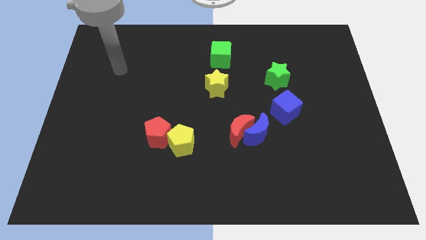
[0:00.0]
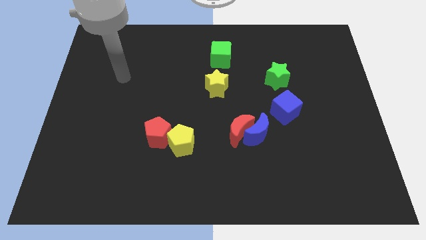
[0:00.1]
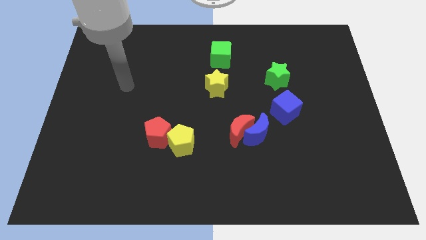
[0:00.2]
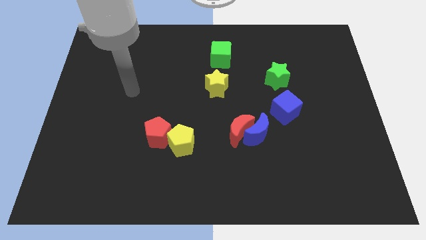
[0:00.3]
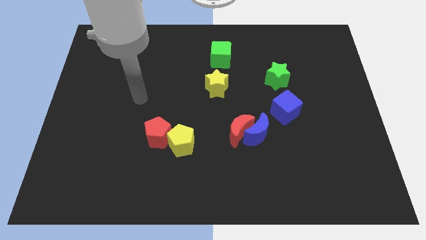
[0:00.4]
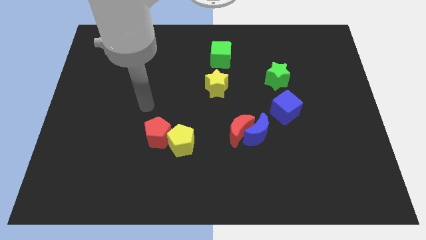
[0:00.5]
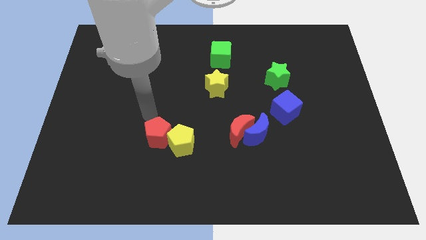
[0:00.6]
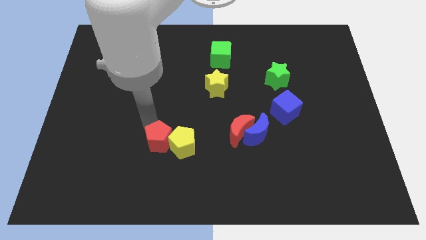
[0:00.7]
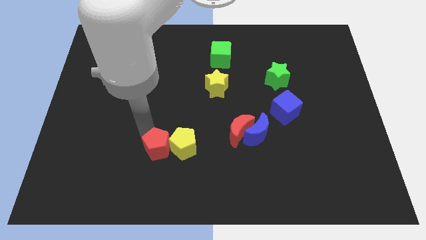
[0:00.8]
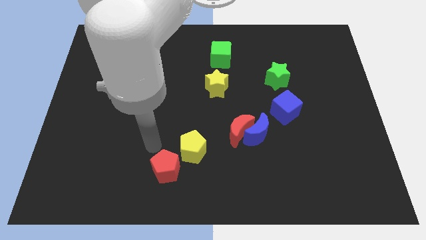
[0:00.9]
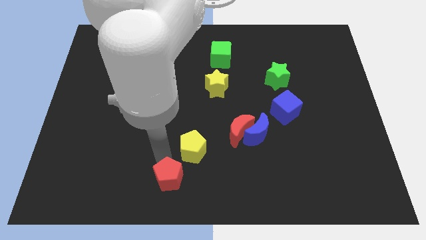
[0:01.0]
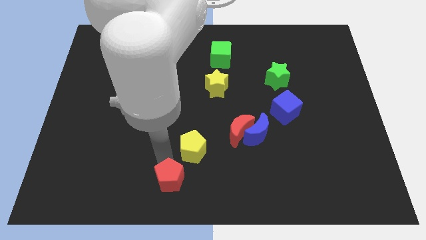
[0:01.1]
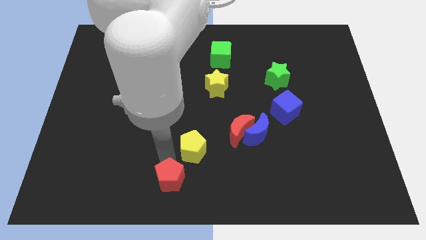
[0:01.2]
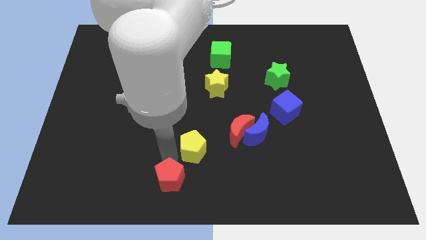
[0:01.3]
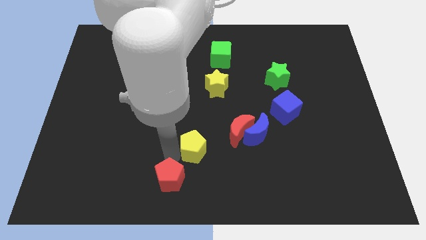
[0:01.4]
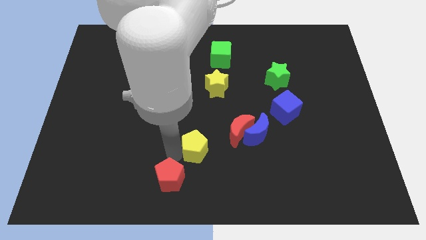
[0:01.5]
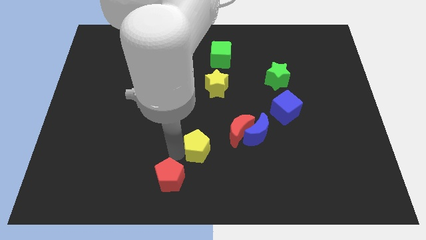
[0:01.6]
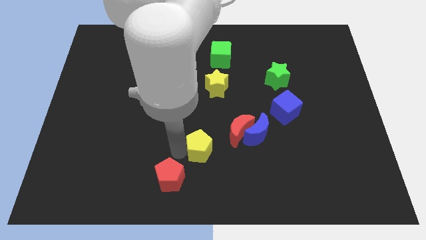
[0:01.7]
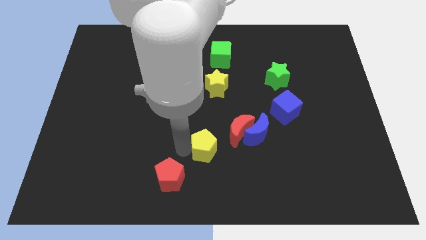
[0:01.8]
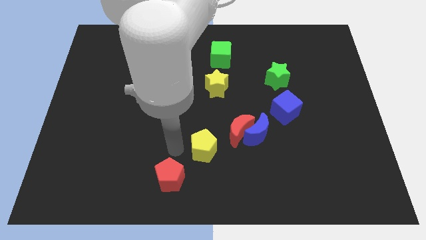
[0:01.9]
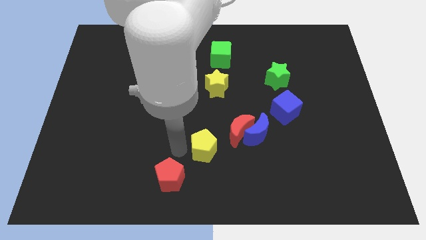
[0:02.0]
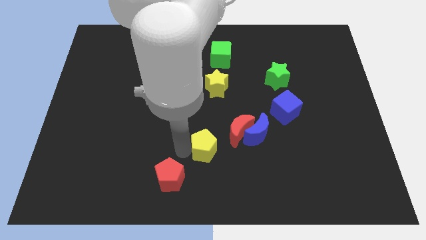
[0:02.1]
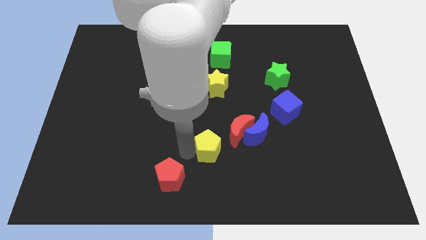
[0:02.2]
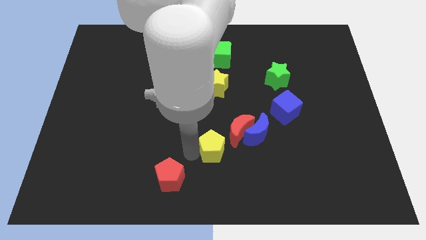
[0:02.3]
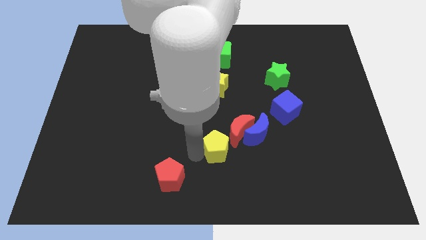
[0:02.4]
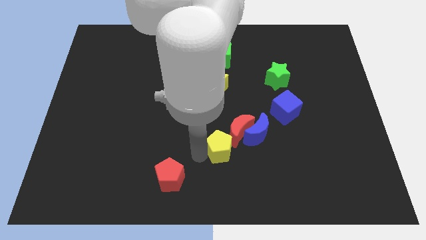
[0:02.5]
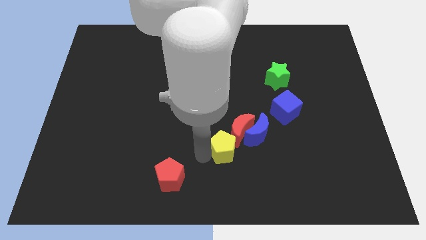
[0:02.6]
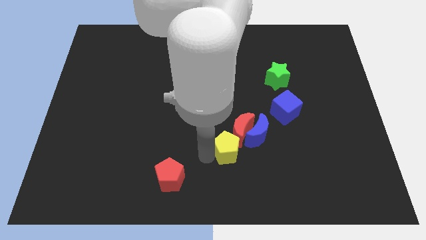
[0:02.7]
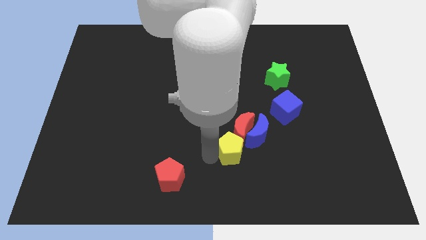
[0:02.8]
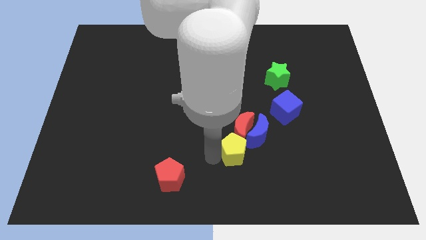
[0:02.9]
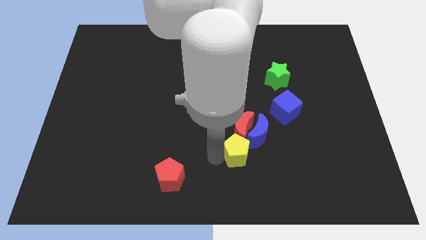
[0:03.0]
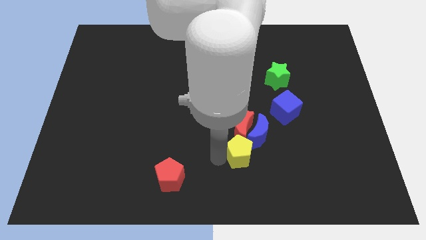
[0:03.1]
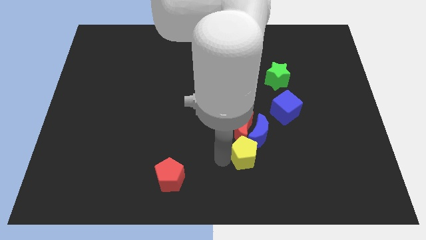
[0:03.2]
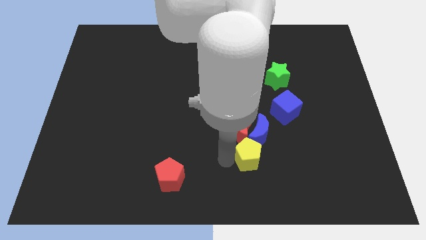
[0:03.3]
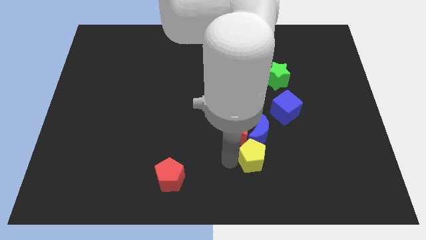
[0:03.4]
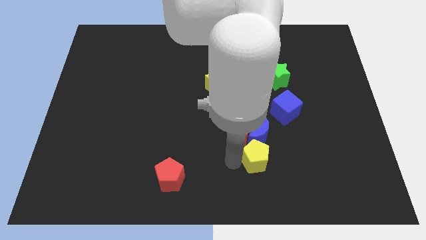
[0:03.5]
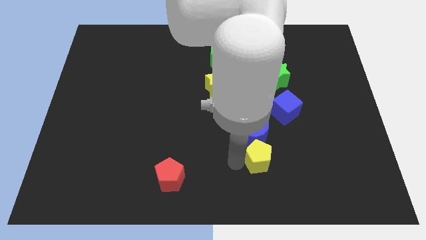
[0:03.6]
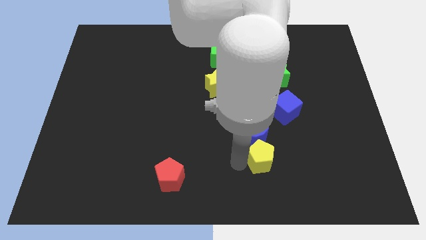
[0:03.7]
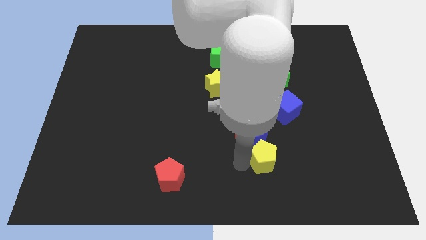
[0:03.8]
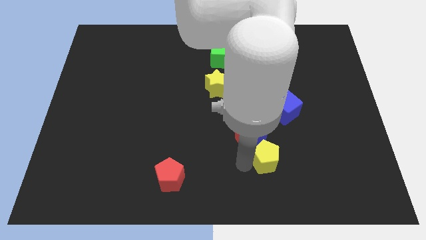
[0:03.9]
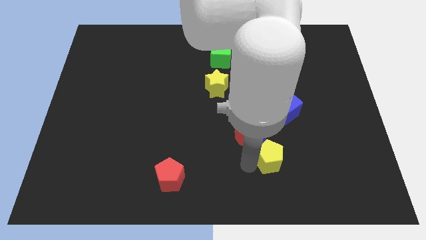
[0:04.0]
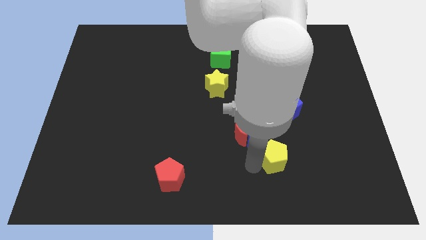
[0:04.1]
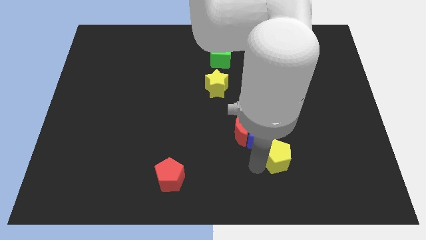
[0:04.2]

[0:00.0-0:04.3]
move the yellow pentagon to the right

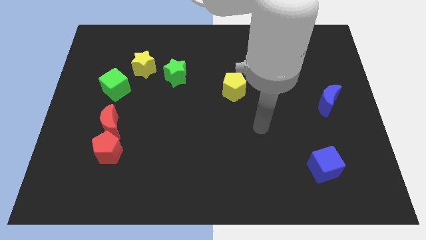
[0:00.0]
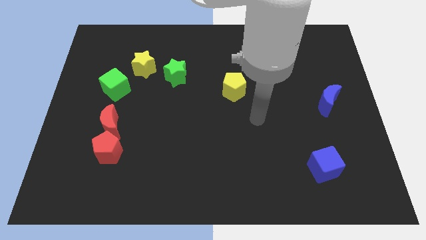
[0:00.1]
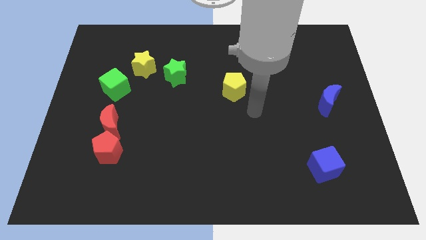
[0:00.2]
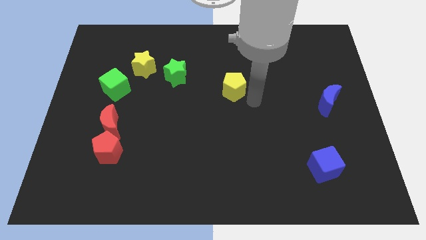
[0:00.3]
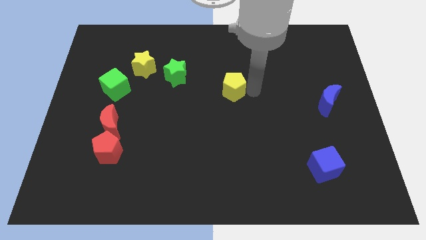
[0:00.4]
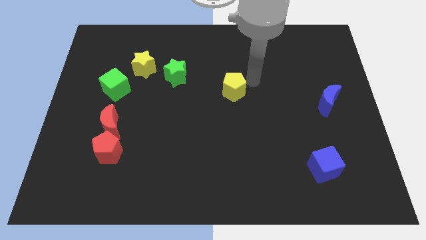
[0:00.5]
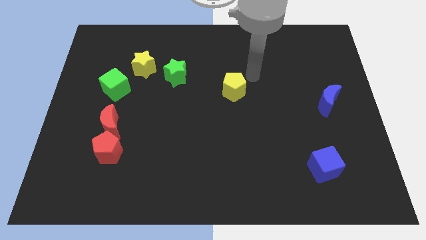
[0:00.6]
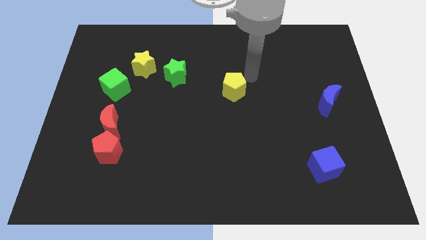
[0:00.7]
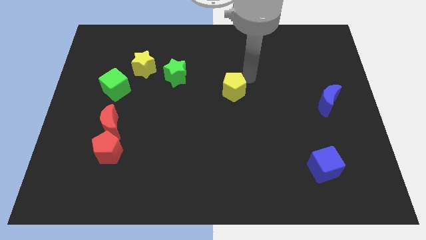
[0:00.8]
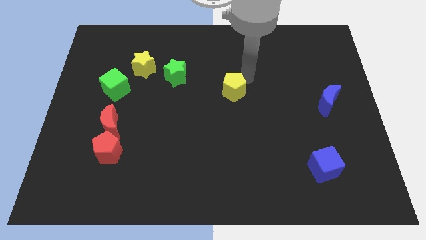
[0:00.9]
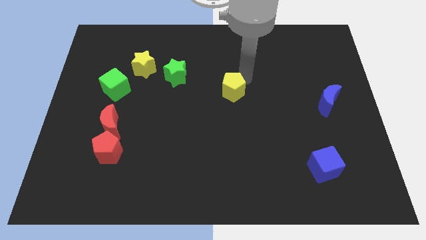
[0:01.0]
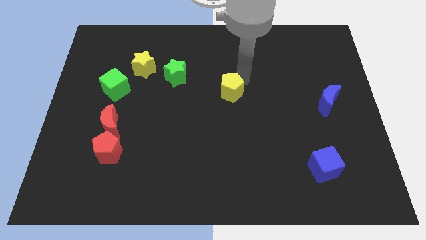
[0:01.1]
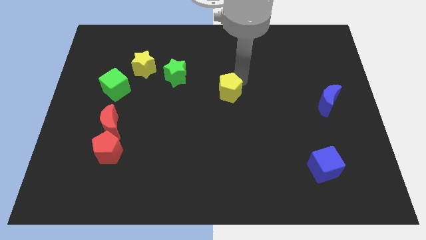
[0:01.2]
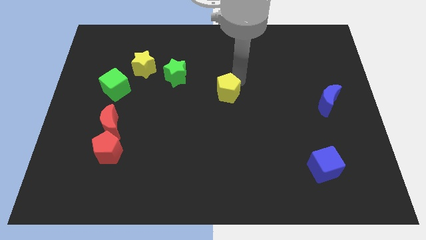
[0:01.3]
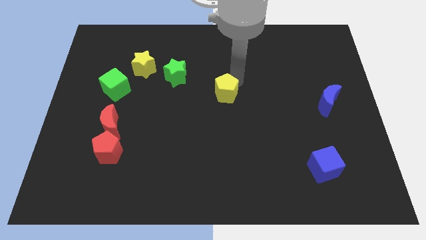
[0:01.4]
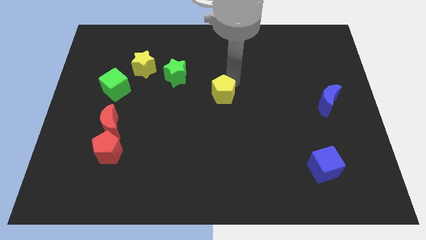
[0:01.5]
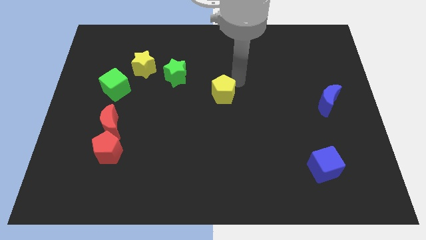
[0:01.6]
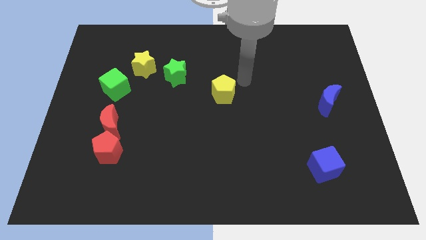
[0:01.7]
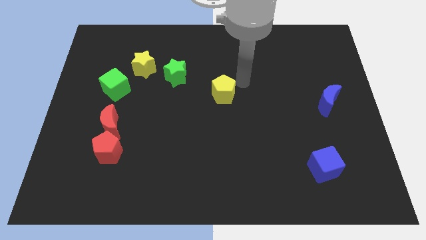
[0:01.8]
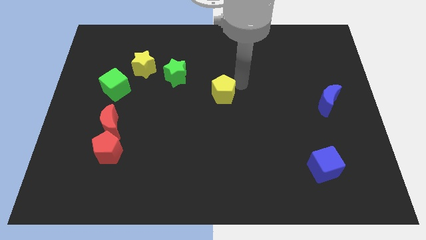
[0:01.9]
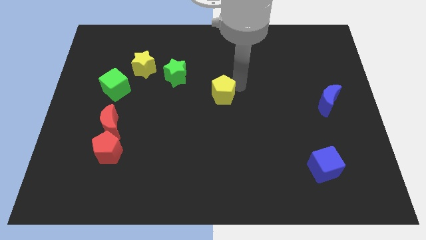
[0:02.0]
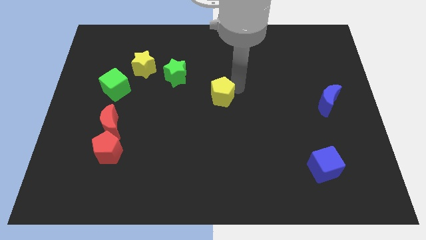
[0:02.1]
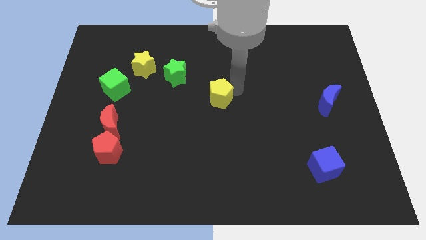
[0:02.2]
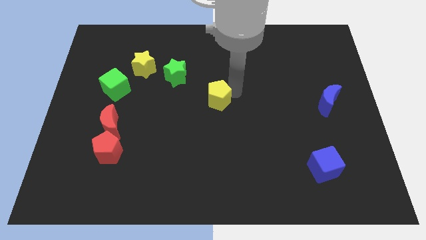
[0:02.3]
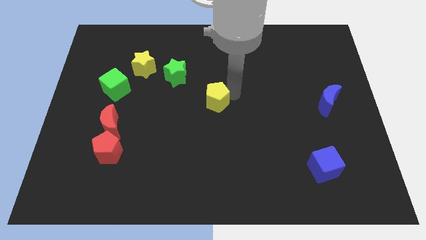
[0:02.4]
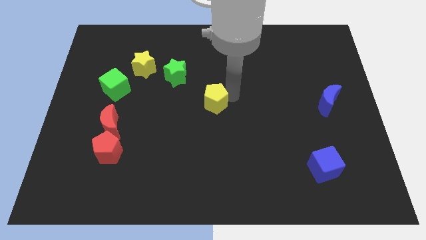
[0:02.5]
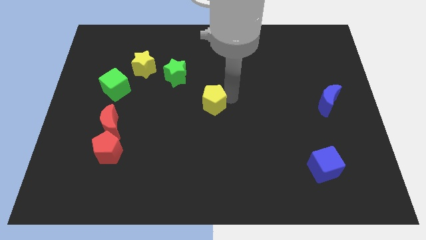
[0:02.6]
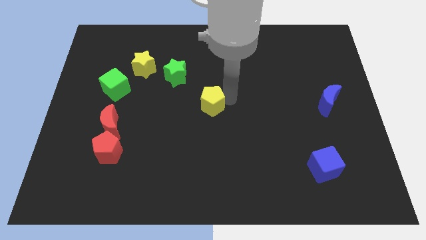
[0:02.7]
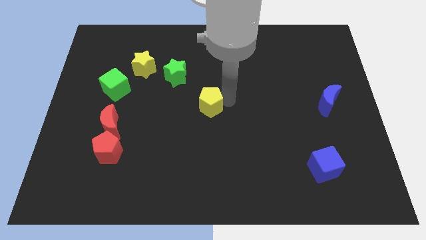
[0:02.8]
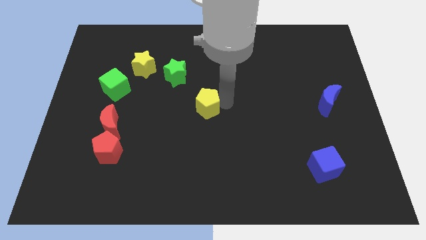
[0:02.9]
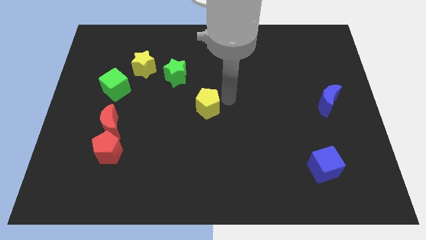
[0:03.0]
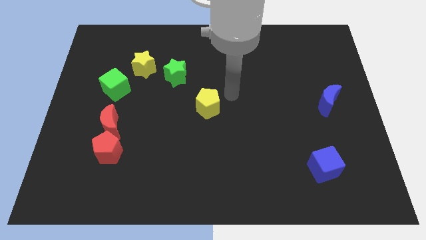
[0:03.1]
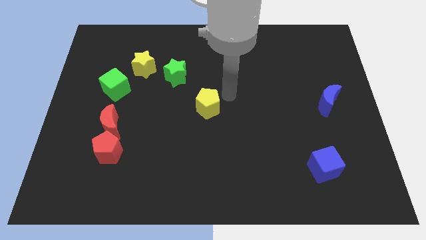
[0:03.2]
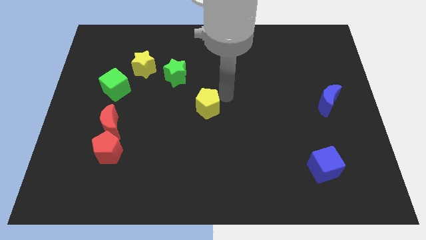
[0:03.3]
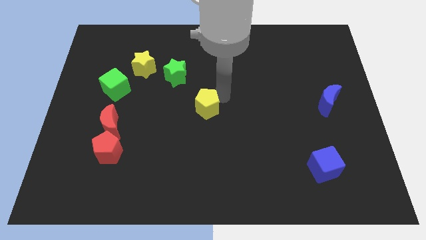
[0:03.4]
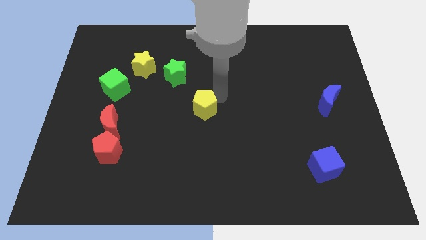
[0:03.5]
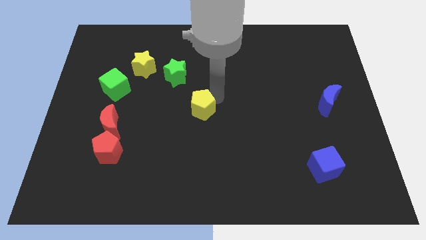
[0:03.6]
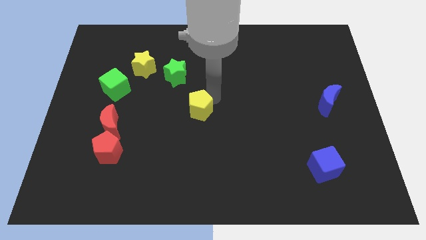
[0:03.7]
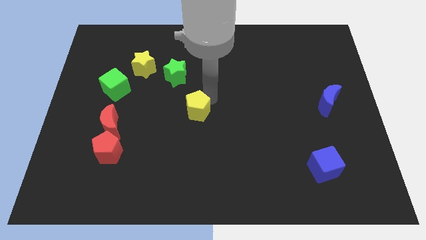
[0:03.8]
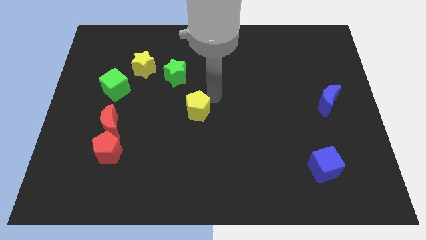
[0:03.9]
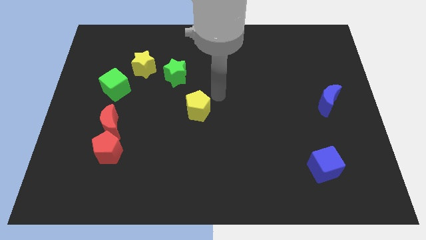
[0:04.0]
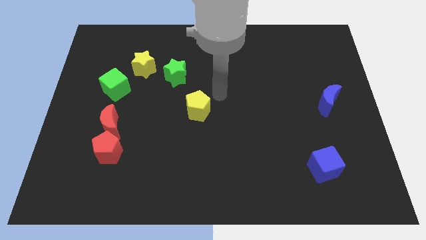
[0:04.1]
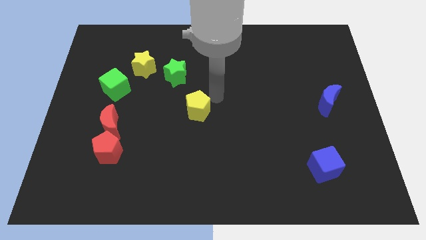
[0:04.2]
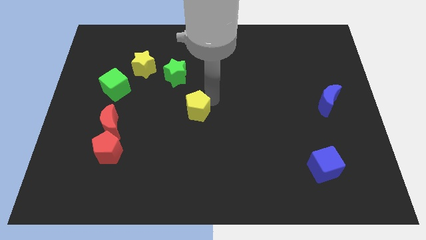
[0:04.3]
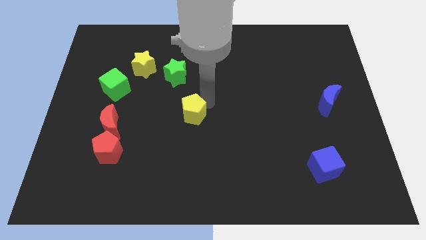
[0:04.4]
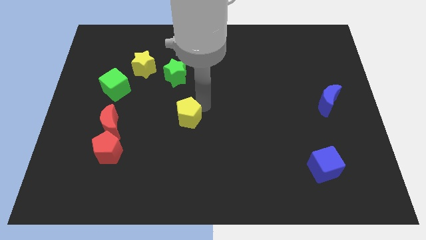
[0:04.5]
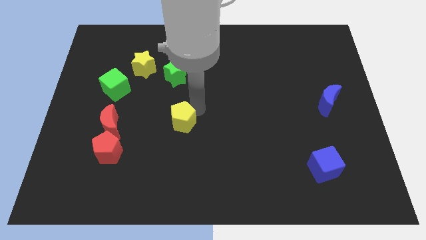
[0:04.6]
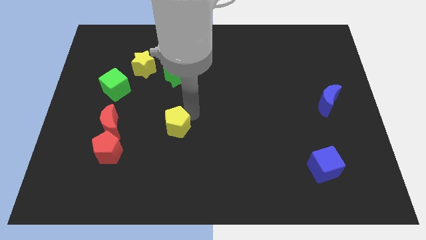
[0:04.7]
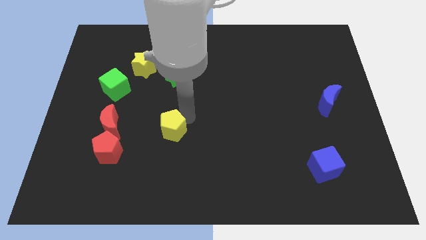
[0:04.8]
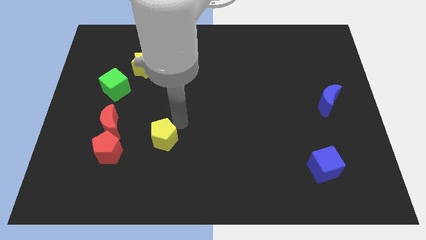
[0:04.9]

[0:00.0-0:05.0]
push the yellow pentagon down and to the left diagonally
